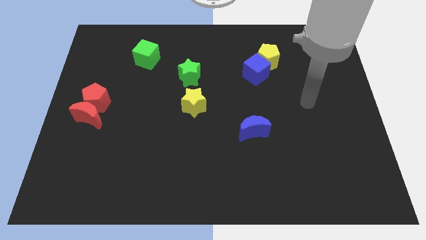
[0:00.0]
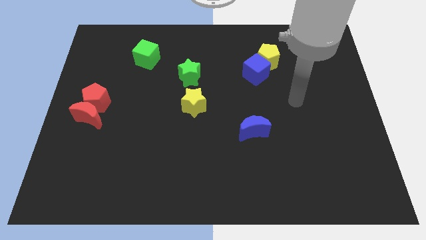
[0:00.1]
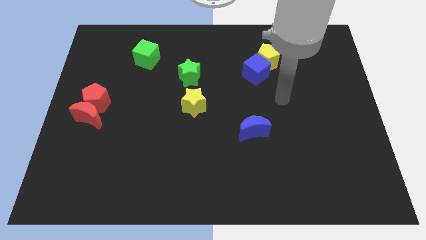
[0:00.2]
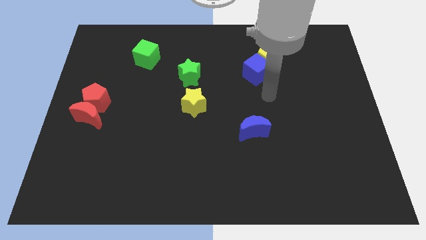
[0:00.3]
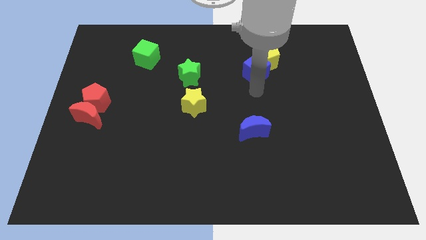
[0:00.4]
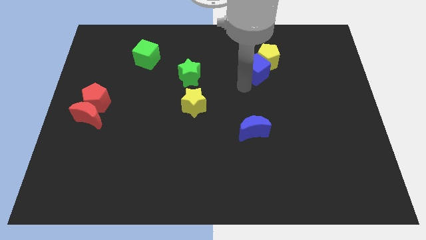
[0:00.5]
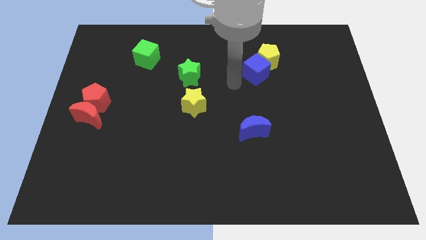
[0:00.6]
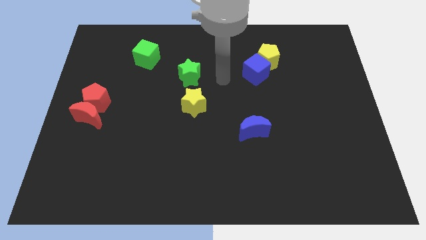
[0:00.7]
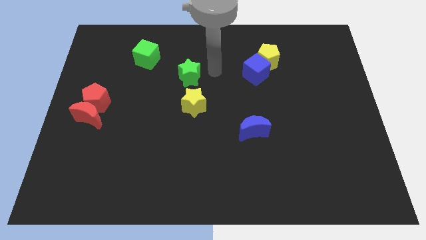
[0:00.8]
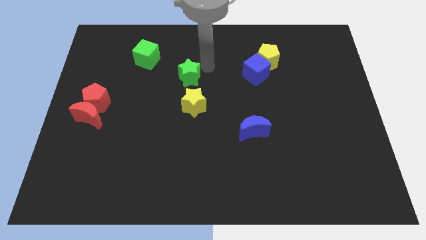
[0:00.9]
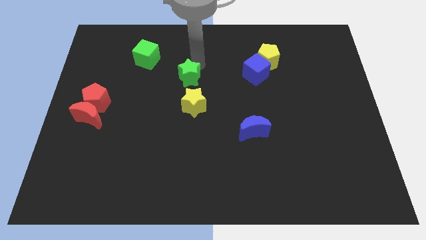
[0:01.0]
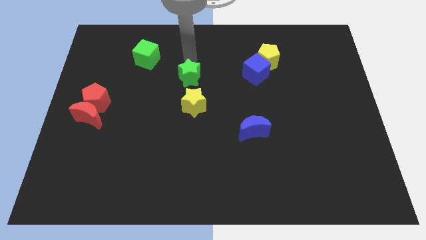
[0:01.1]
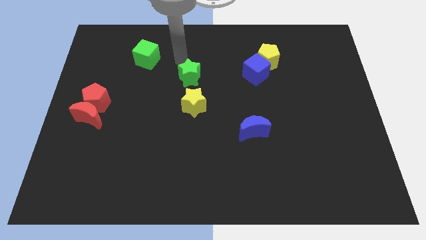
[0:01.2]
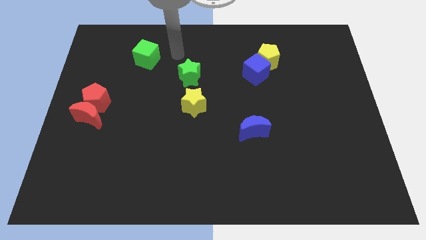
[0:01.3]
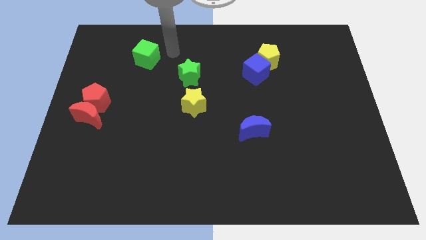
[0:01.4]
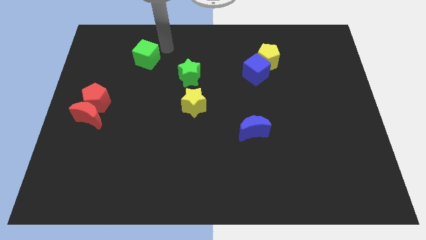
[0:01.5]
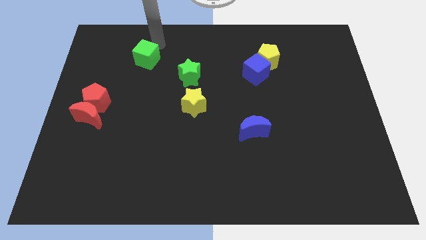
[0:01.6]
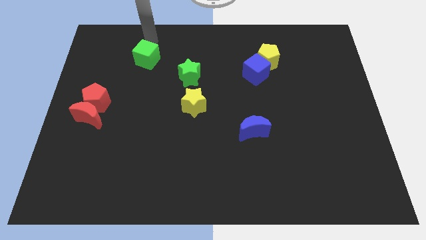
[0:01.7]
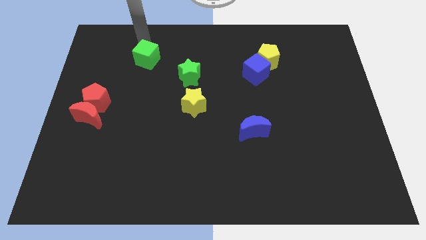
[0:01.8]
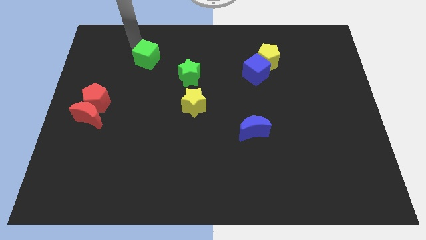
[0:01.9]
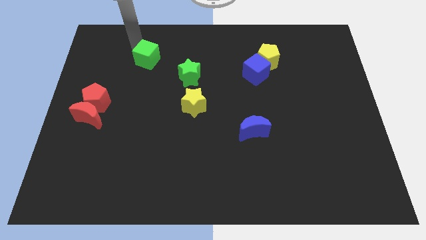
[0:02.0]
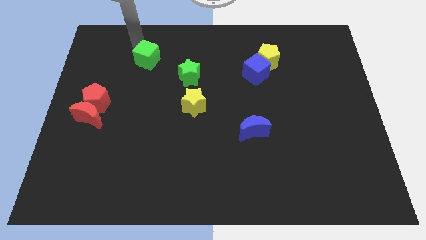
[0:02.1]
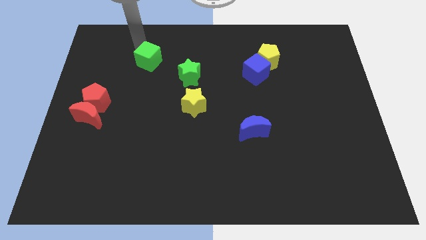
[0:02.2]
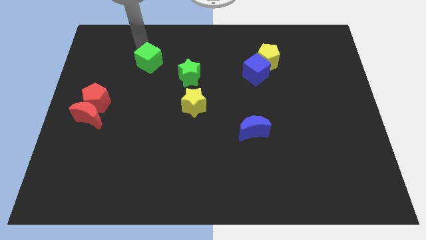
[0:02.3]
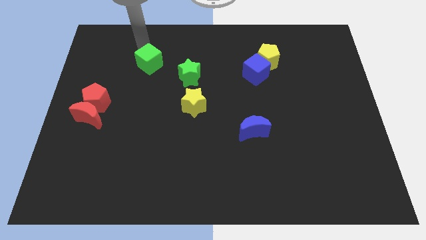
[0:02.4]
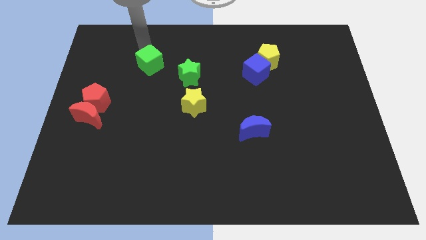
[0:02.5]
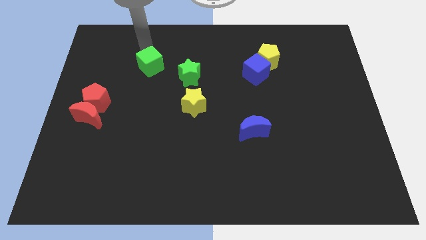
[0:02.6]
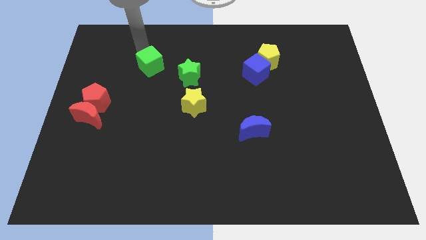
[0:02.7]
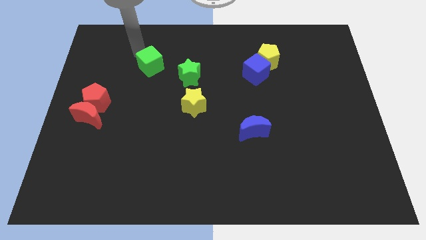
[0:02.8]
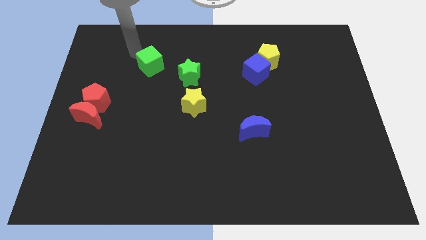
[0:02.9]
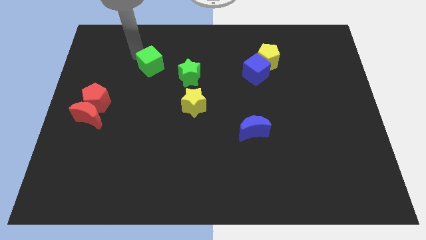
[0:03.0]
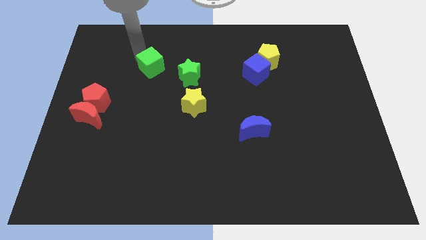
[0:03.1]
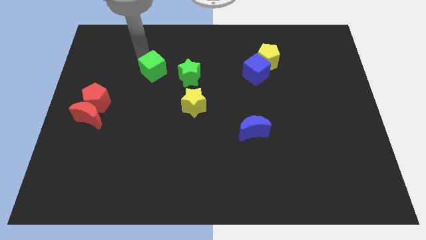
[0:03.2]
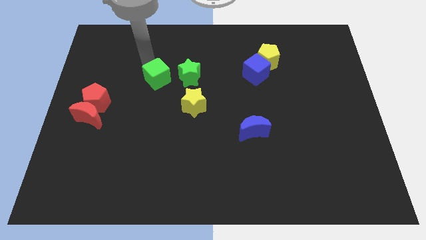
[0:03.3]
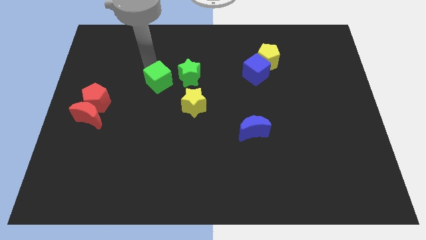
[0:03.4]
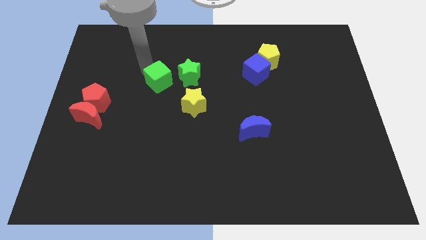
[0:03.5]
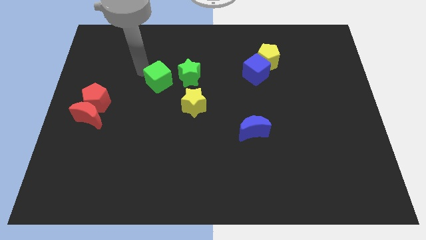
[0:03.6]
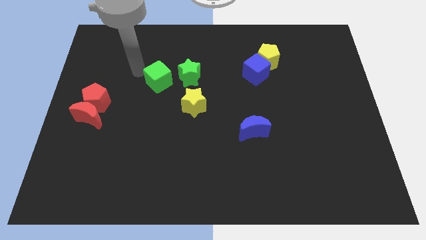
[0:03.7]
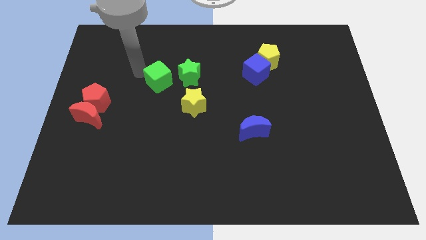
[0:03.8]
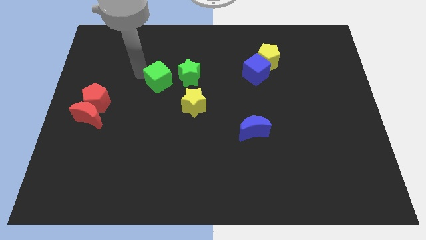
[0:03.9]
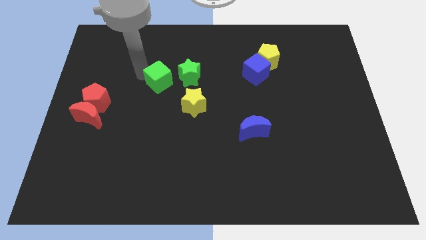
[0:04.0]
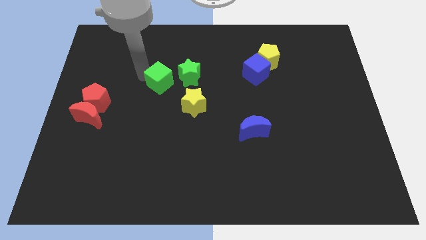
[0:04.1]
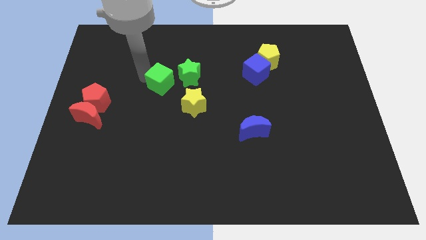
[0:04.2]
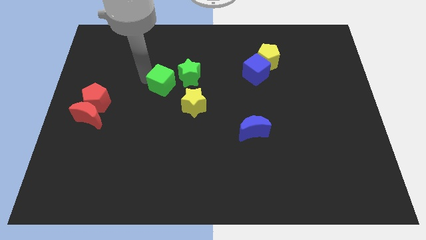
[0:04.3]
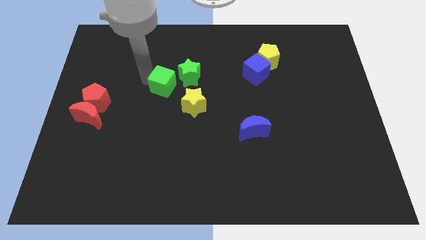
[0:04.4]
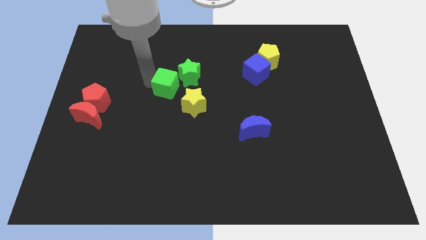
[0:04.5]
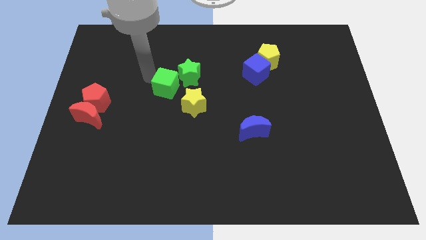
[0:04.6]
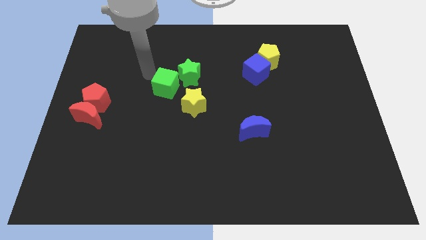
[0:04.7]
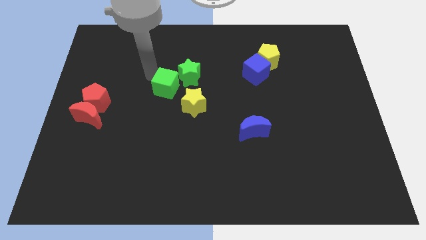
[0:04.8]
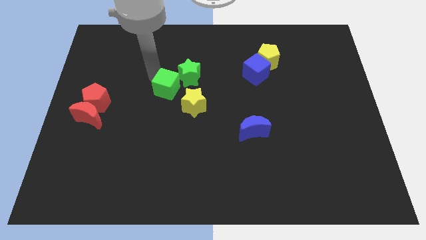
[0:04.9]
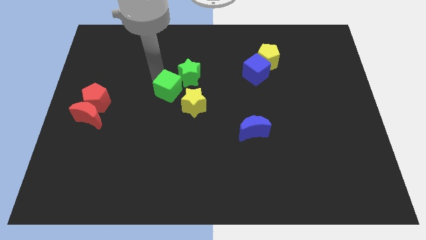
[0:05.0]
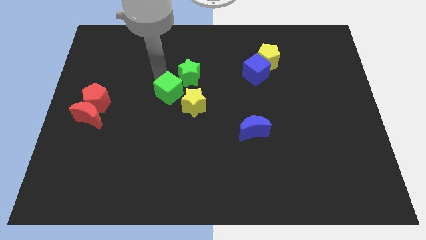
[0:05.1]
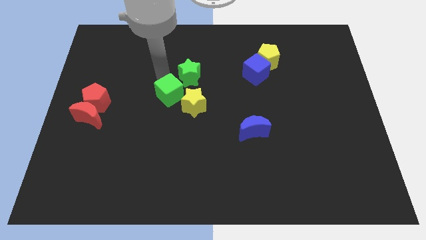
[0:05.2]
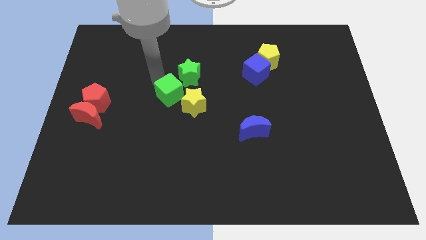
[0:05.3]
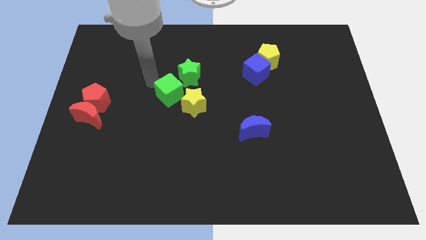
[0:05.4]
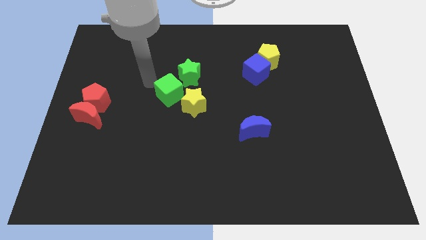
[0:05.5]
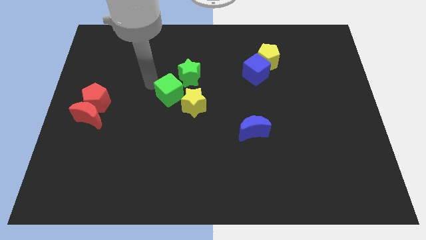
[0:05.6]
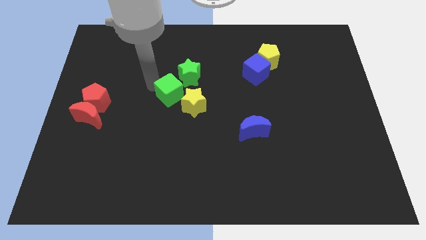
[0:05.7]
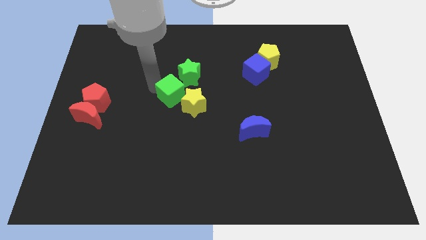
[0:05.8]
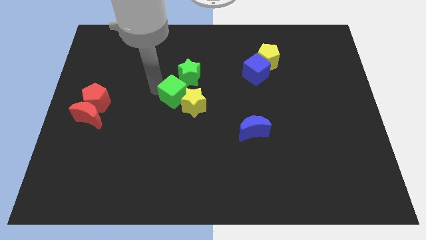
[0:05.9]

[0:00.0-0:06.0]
put the green cube close to the yellow star
